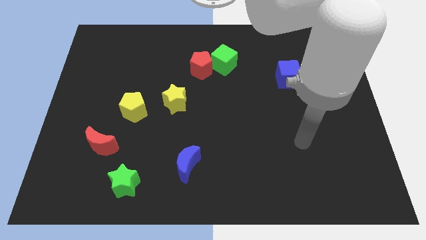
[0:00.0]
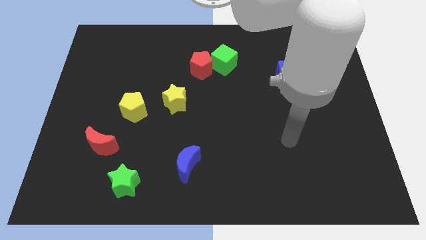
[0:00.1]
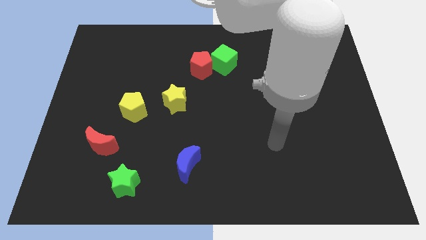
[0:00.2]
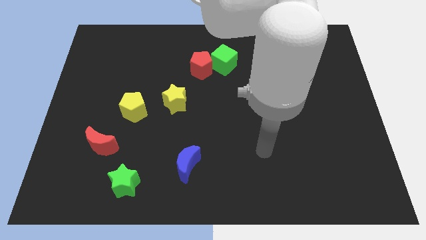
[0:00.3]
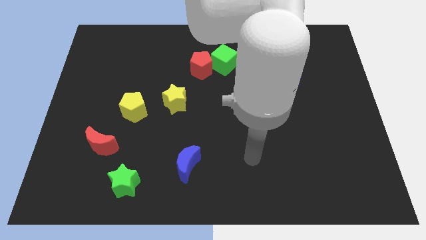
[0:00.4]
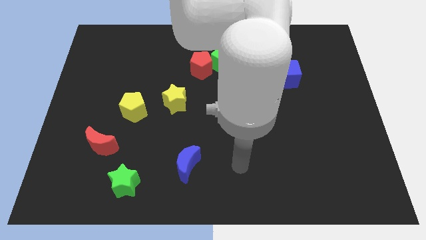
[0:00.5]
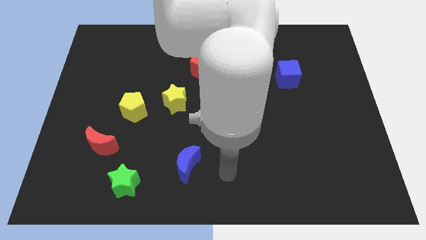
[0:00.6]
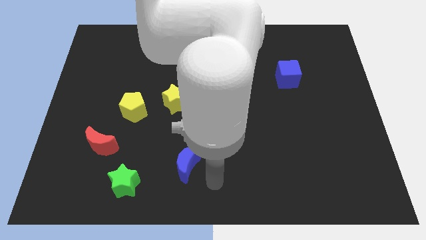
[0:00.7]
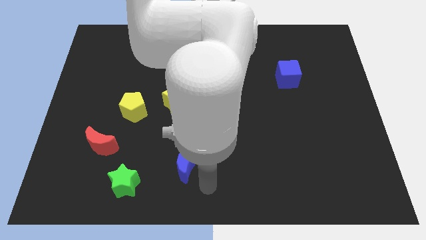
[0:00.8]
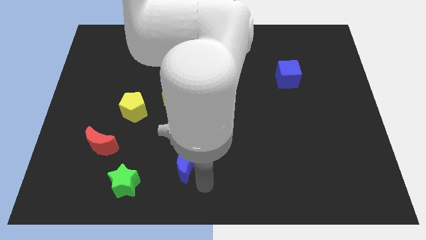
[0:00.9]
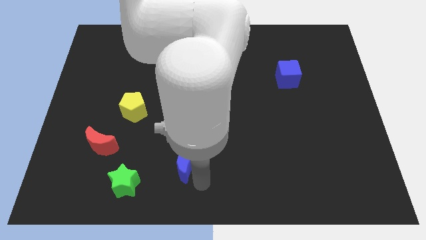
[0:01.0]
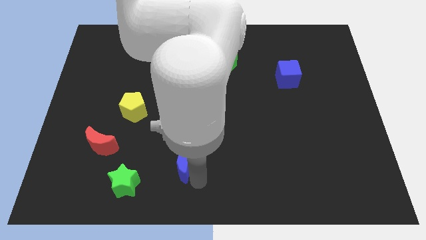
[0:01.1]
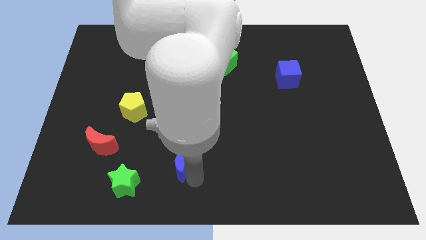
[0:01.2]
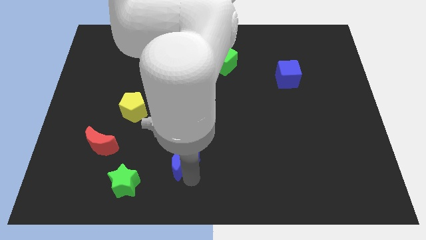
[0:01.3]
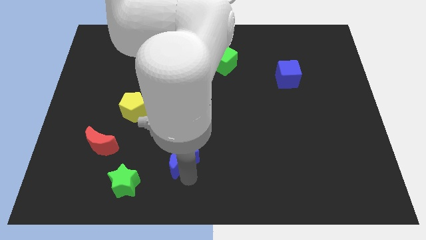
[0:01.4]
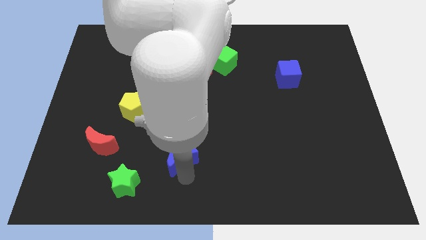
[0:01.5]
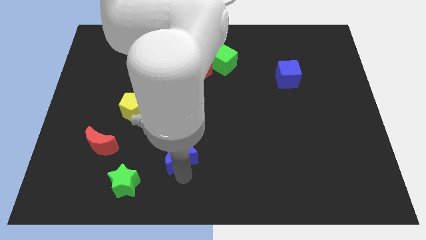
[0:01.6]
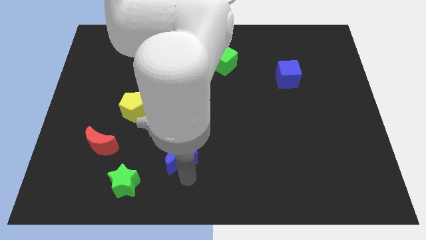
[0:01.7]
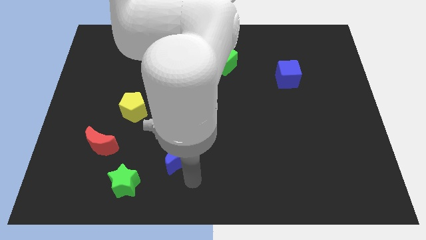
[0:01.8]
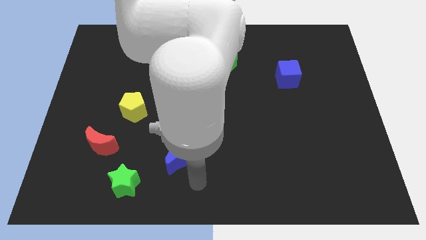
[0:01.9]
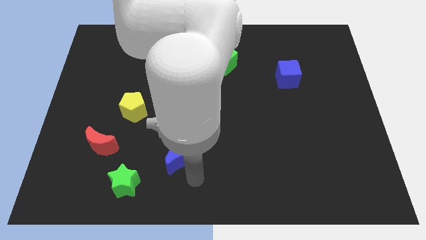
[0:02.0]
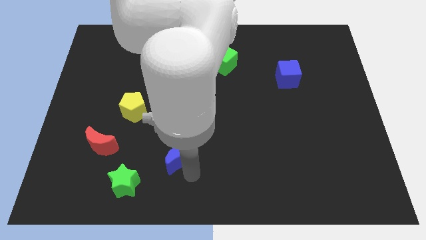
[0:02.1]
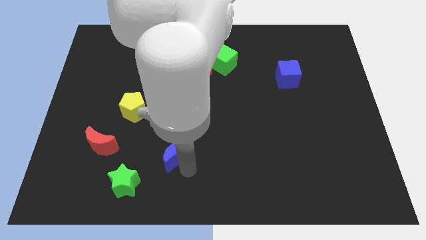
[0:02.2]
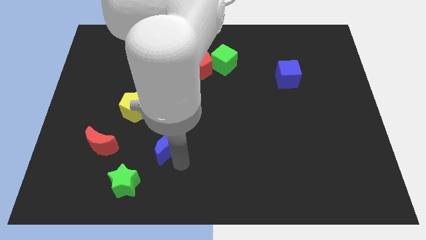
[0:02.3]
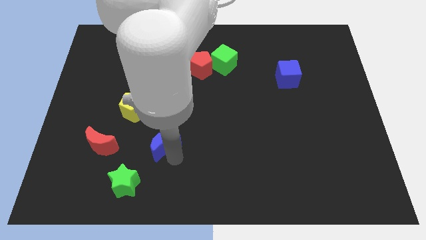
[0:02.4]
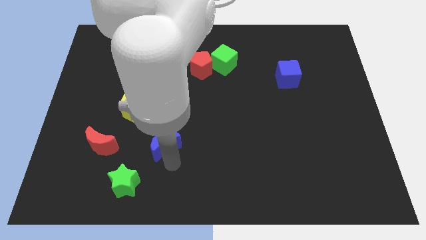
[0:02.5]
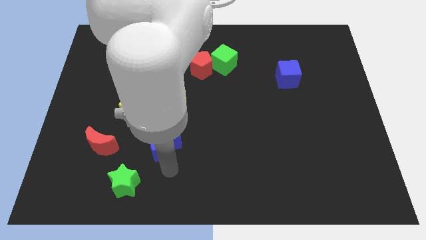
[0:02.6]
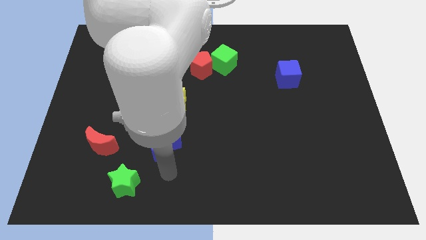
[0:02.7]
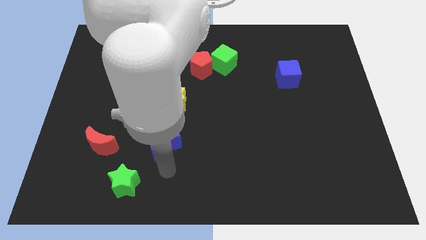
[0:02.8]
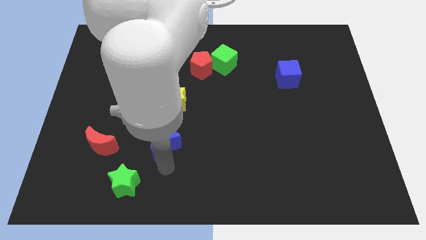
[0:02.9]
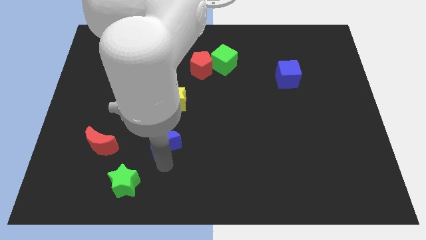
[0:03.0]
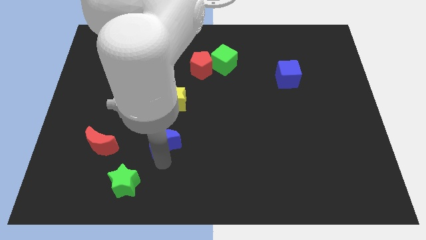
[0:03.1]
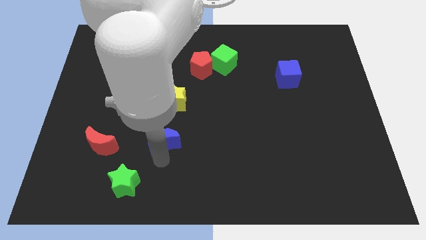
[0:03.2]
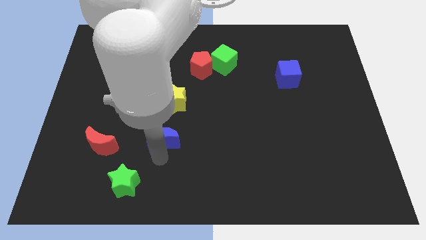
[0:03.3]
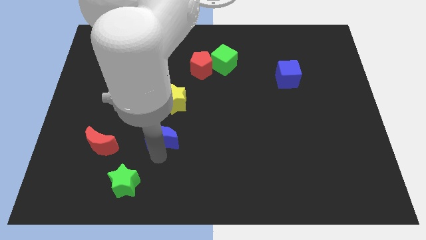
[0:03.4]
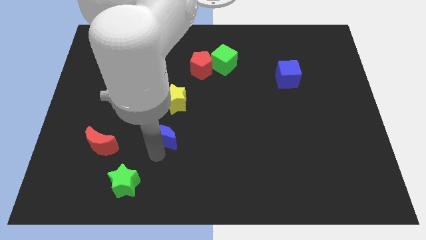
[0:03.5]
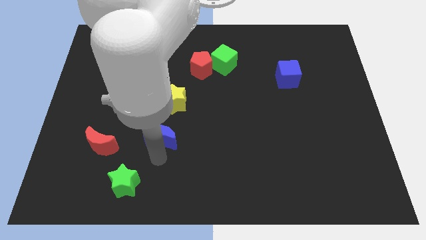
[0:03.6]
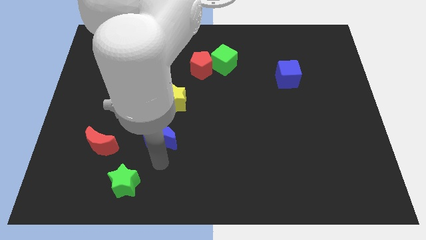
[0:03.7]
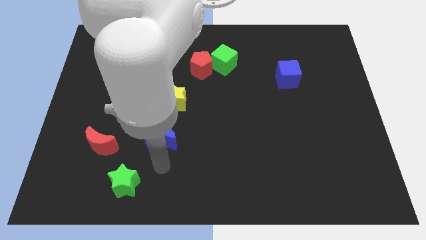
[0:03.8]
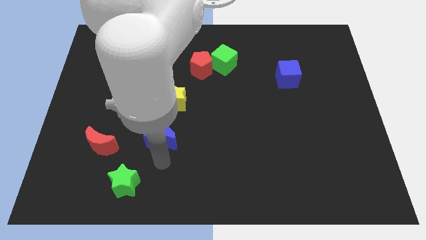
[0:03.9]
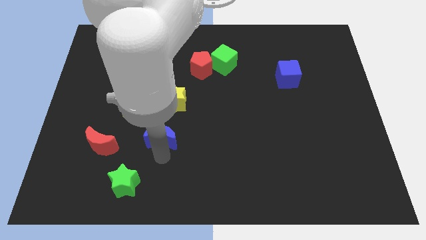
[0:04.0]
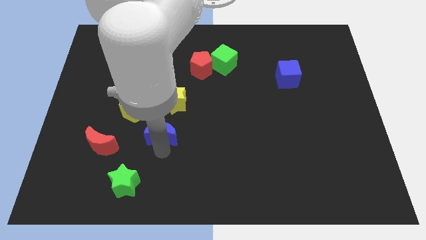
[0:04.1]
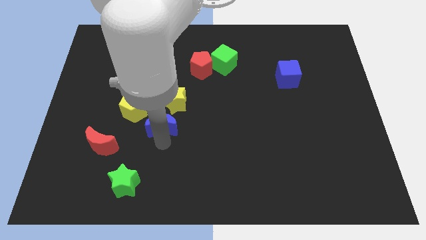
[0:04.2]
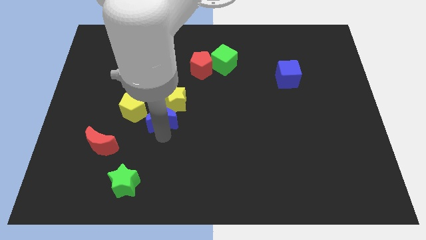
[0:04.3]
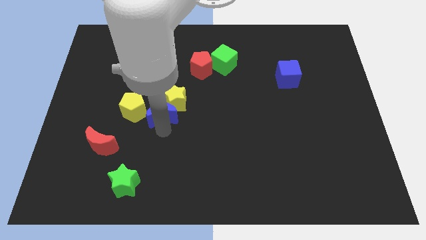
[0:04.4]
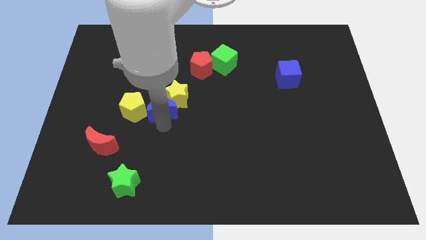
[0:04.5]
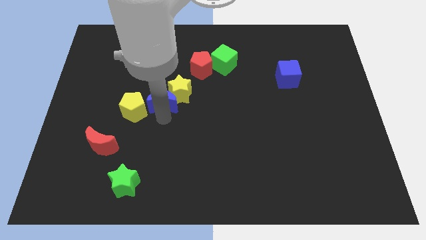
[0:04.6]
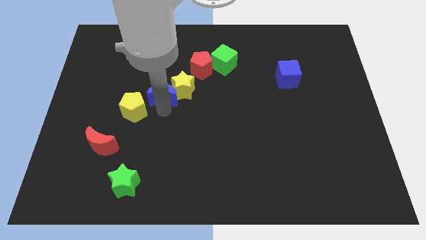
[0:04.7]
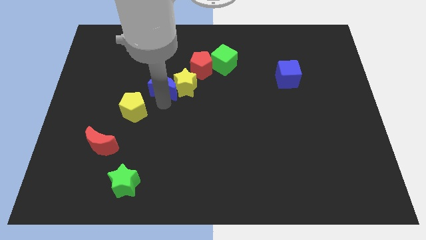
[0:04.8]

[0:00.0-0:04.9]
slide the blue moon diagonally up and to the left of the yellow star

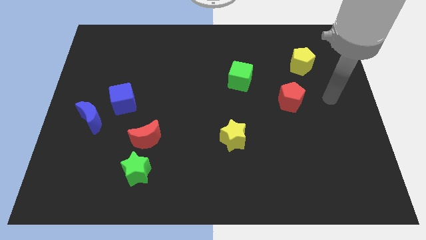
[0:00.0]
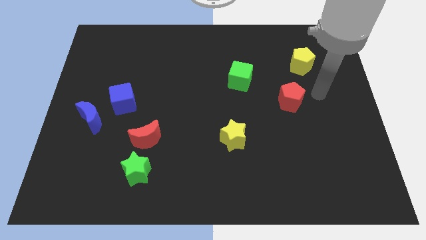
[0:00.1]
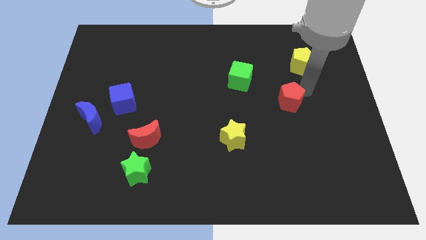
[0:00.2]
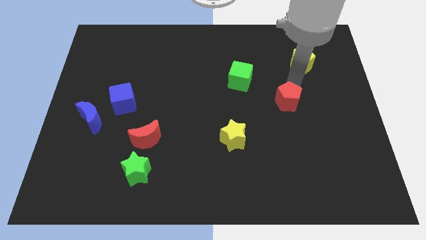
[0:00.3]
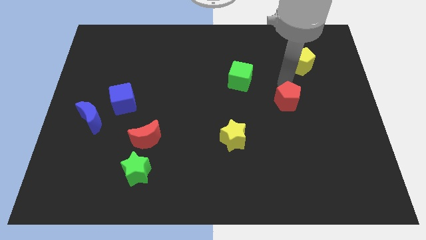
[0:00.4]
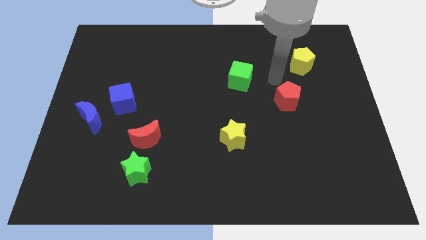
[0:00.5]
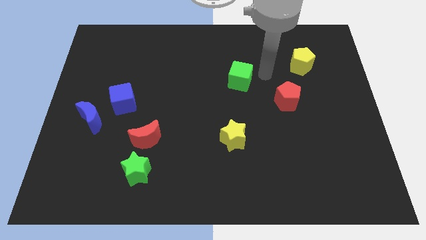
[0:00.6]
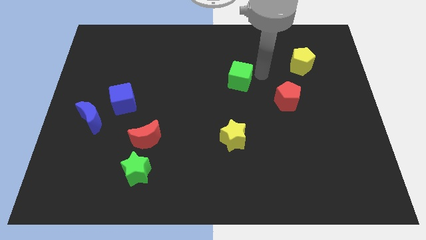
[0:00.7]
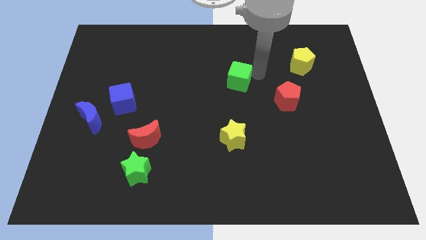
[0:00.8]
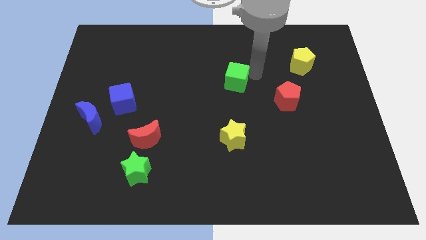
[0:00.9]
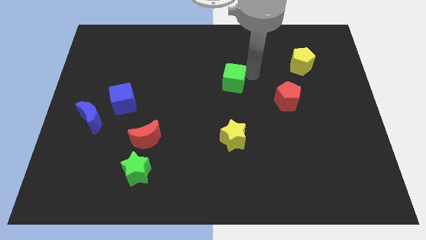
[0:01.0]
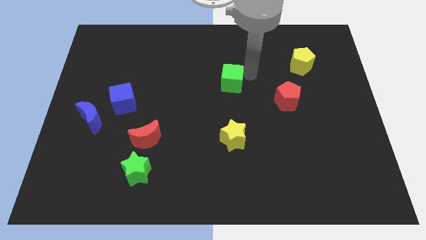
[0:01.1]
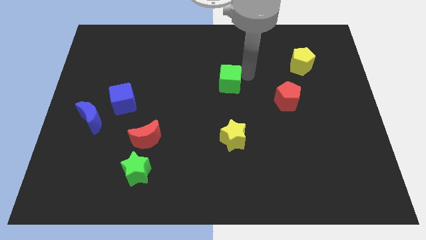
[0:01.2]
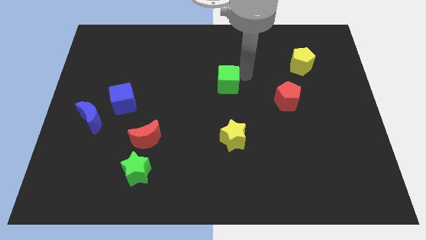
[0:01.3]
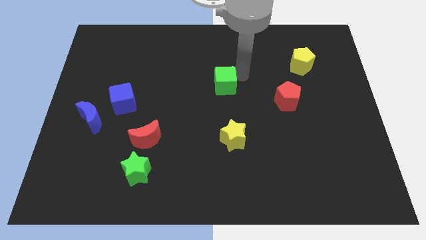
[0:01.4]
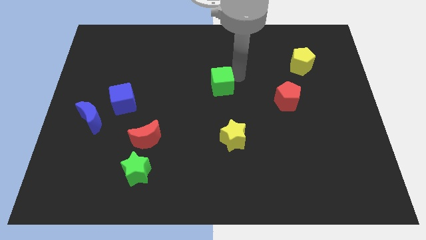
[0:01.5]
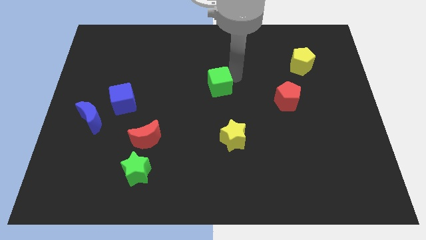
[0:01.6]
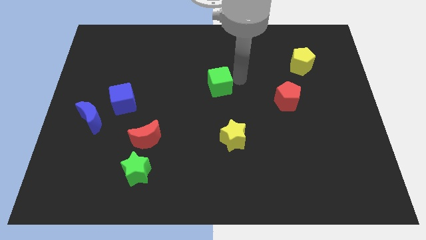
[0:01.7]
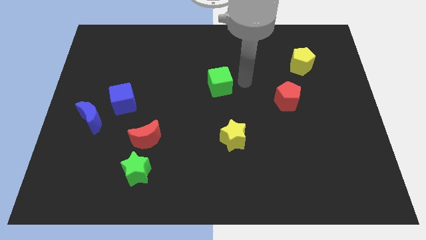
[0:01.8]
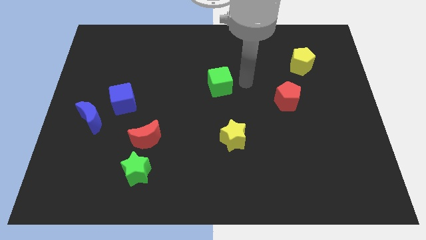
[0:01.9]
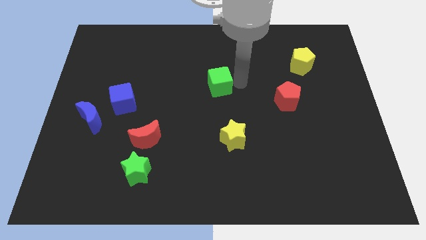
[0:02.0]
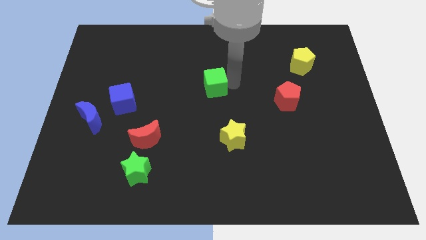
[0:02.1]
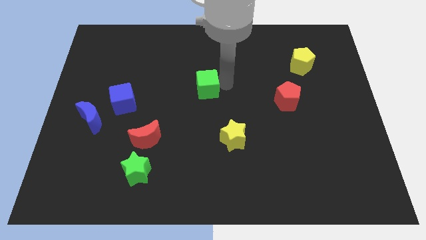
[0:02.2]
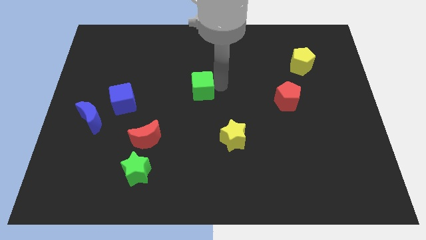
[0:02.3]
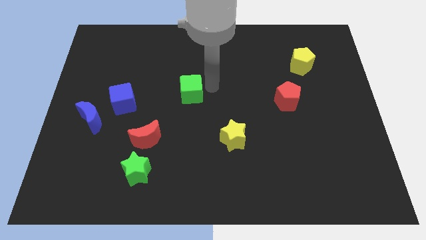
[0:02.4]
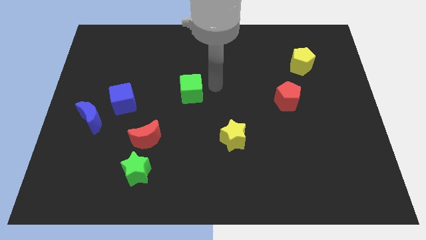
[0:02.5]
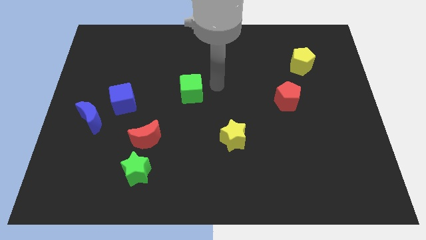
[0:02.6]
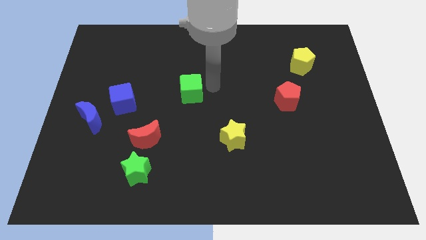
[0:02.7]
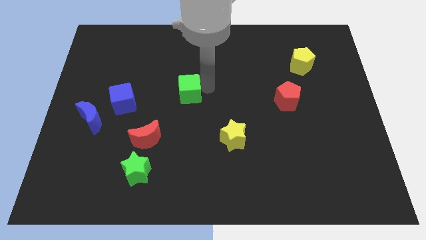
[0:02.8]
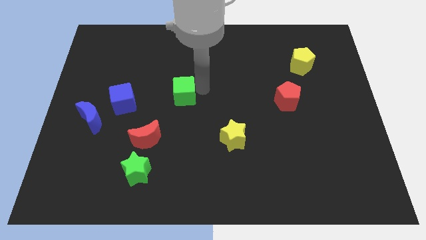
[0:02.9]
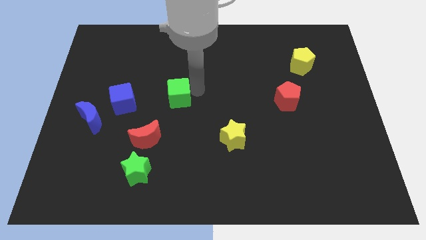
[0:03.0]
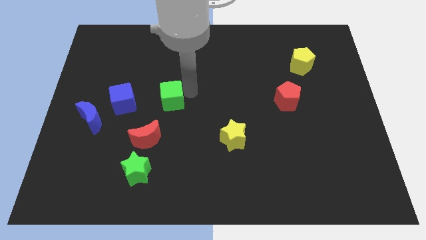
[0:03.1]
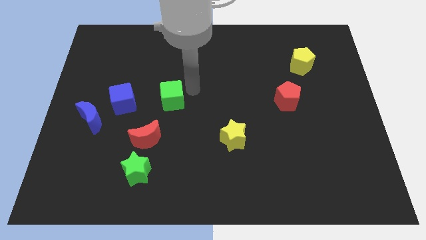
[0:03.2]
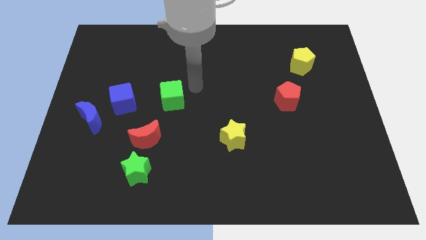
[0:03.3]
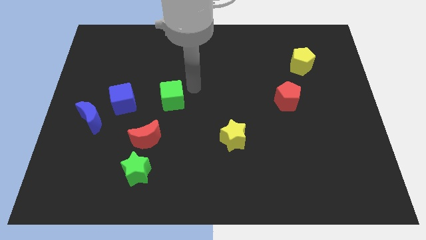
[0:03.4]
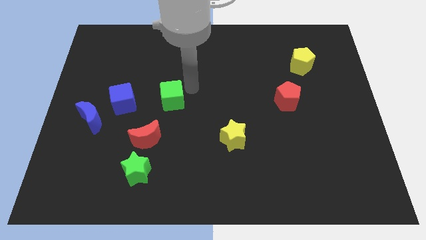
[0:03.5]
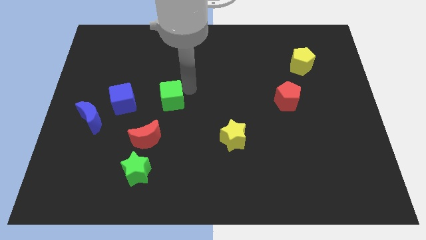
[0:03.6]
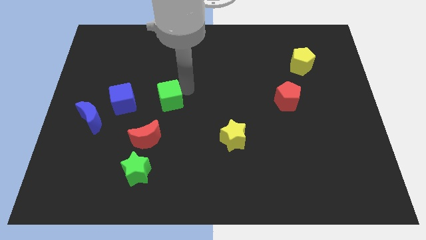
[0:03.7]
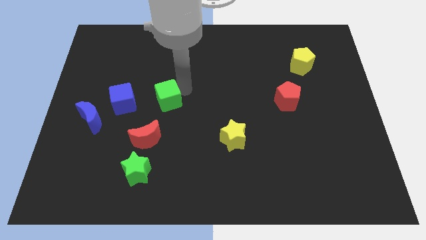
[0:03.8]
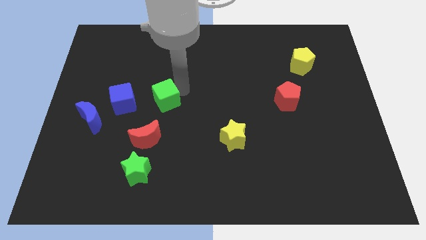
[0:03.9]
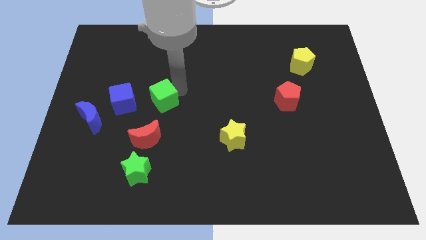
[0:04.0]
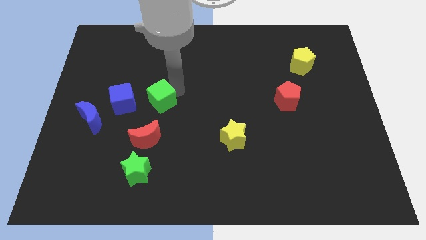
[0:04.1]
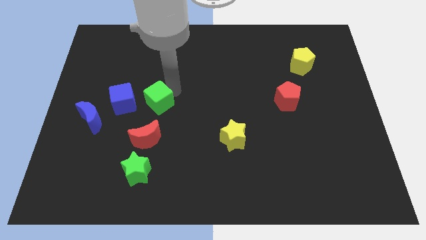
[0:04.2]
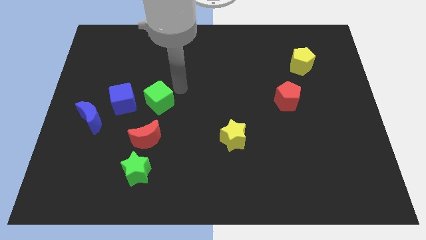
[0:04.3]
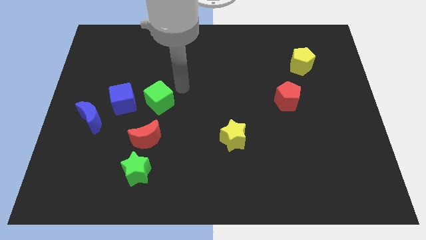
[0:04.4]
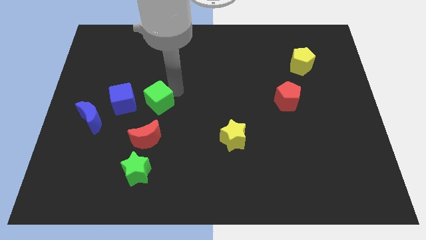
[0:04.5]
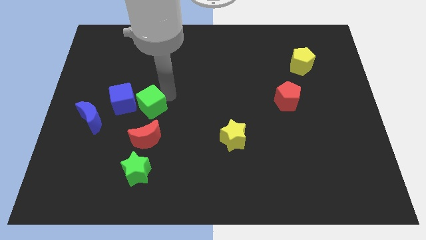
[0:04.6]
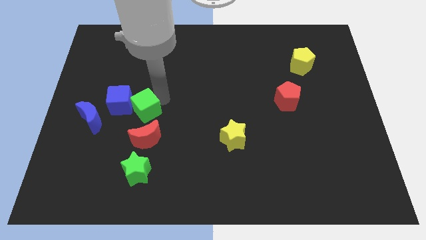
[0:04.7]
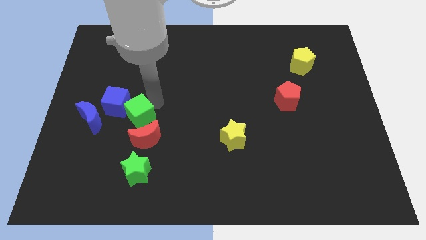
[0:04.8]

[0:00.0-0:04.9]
slide the green cube diagonally up and to the left of the red moon
